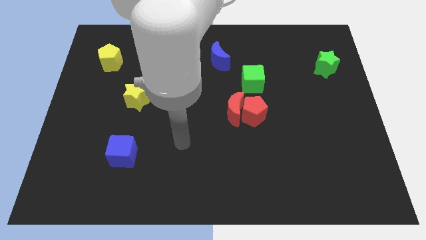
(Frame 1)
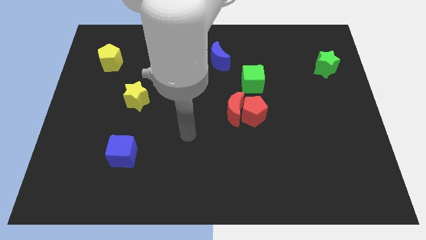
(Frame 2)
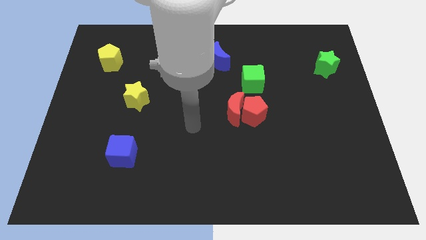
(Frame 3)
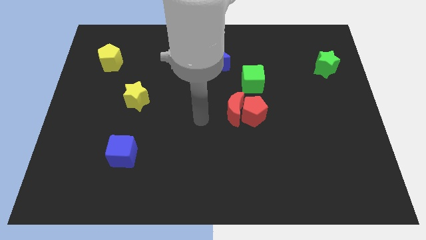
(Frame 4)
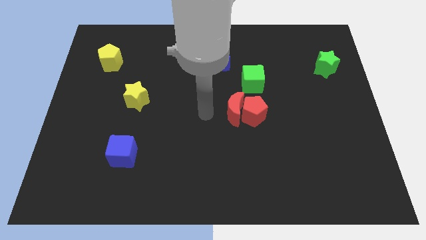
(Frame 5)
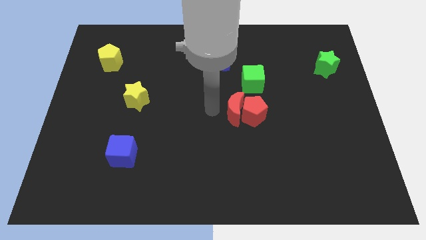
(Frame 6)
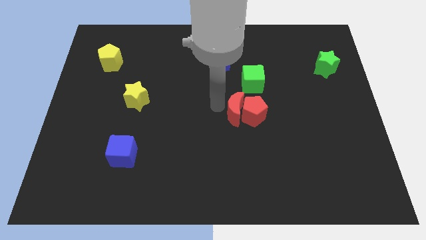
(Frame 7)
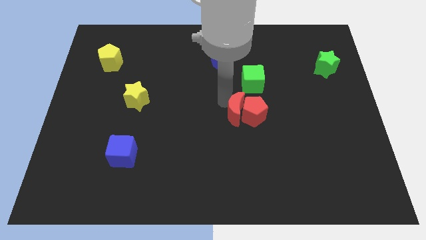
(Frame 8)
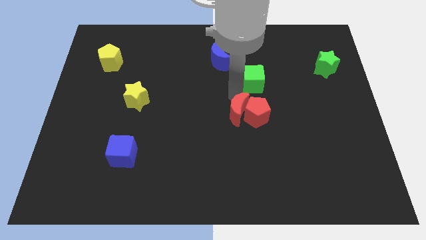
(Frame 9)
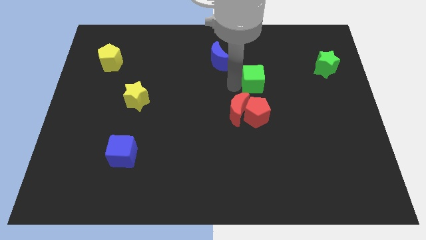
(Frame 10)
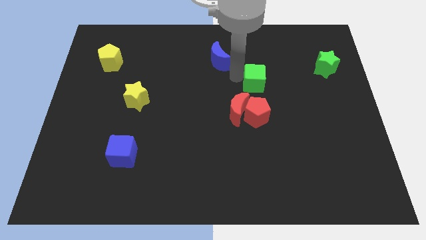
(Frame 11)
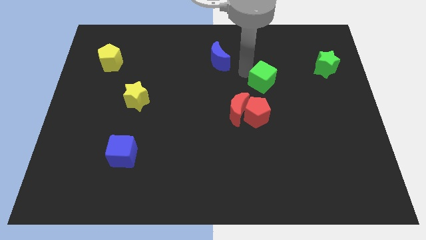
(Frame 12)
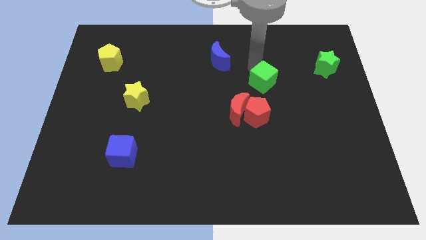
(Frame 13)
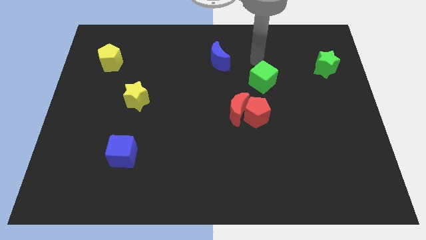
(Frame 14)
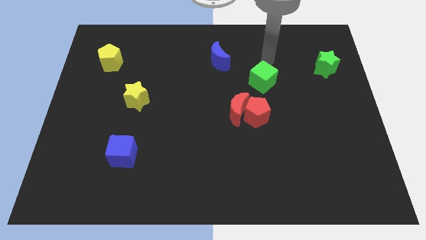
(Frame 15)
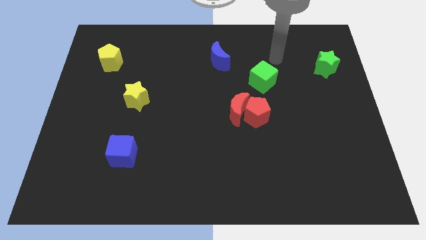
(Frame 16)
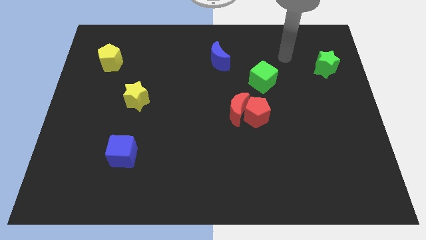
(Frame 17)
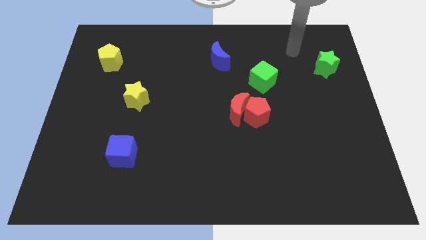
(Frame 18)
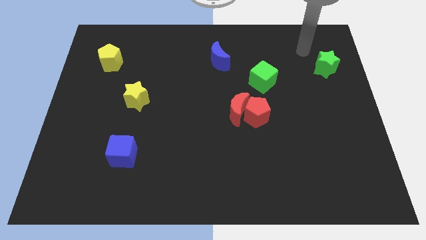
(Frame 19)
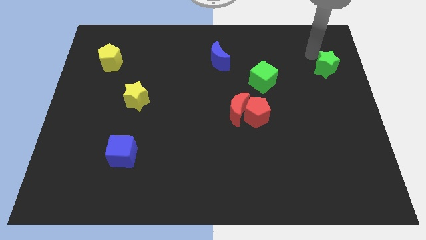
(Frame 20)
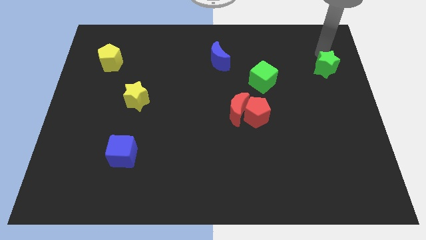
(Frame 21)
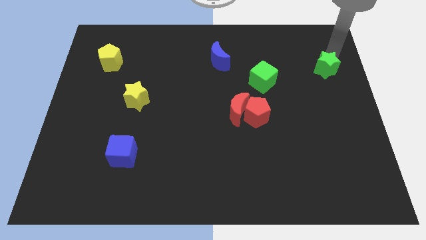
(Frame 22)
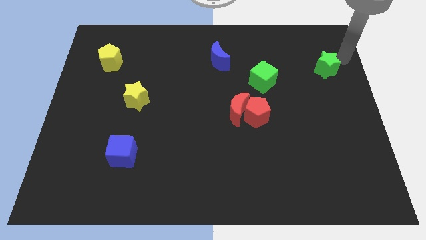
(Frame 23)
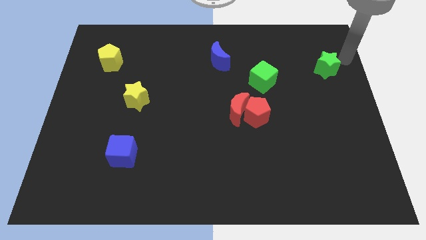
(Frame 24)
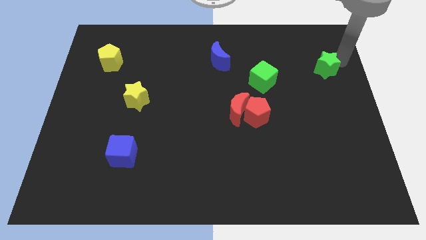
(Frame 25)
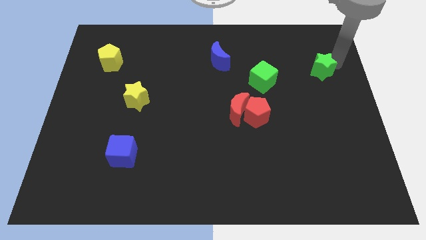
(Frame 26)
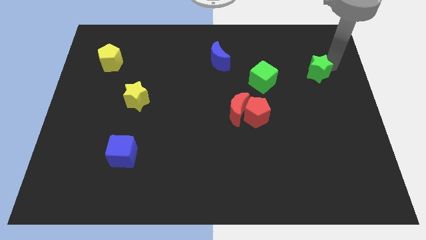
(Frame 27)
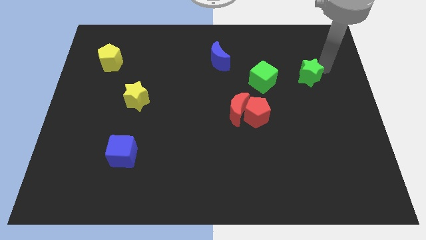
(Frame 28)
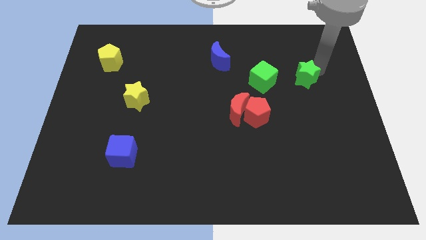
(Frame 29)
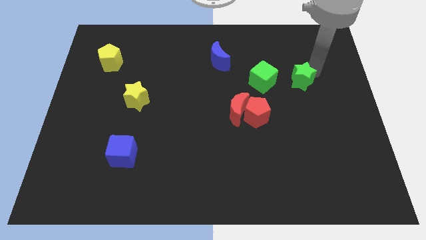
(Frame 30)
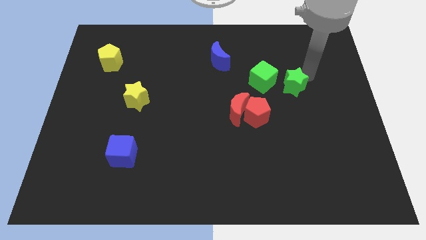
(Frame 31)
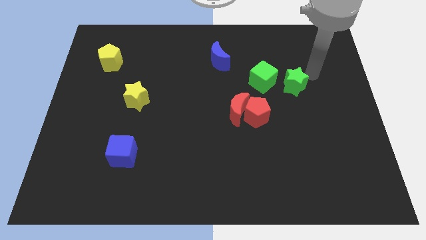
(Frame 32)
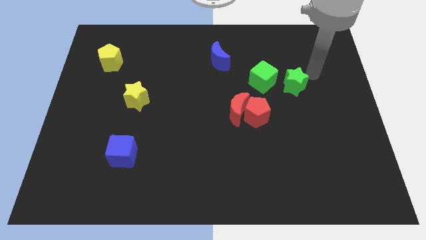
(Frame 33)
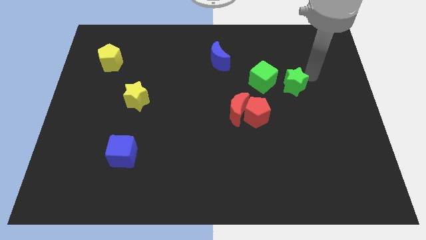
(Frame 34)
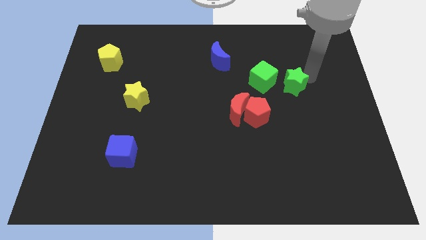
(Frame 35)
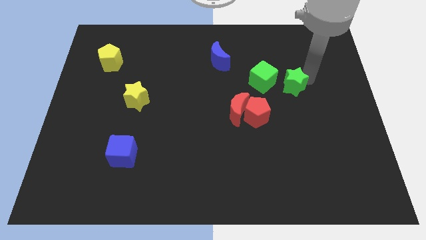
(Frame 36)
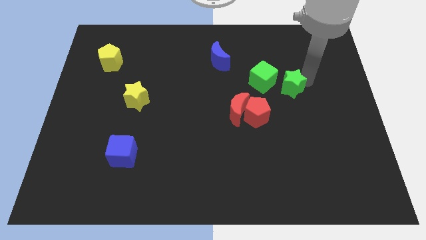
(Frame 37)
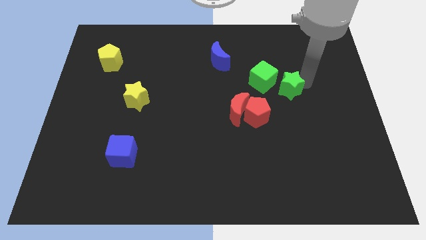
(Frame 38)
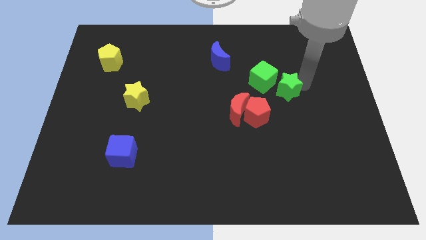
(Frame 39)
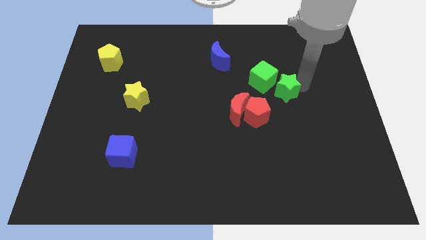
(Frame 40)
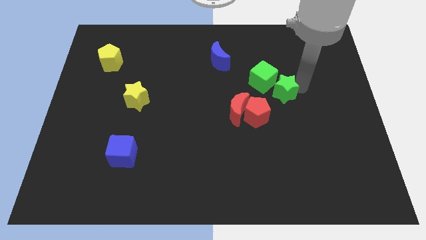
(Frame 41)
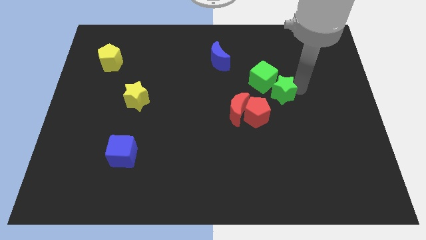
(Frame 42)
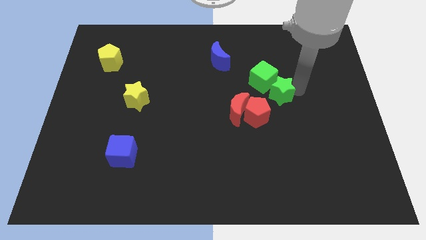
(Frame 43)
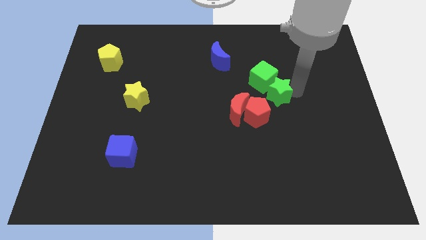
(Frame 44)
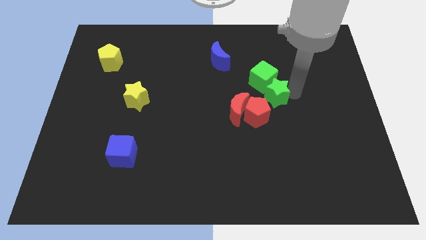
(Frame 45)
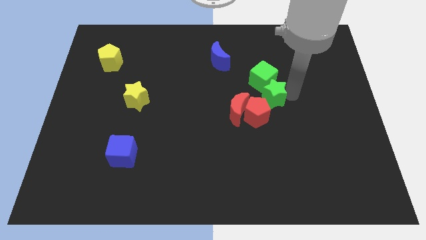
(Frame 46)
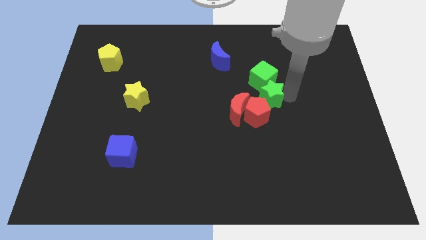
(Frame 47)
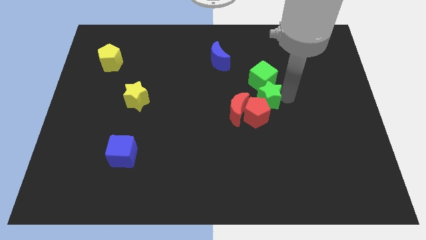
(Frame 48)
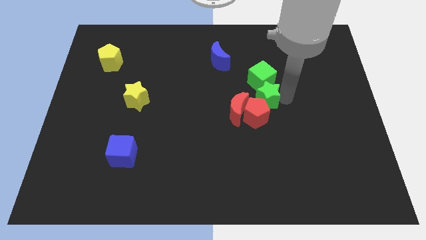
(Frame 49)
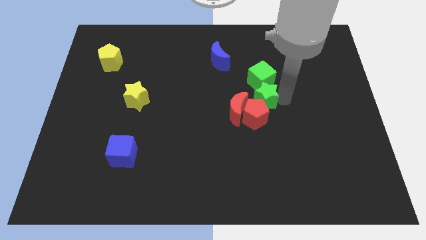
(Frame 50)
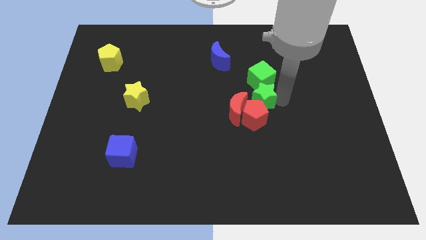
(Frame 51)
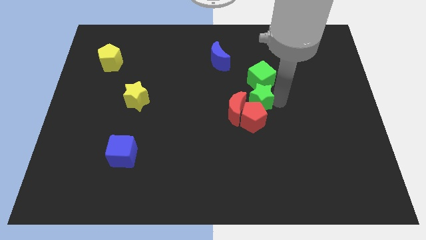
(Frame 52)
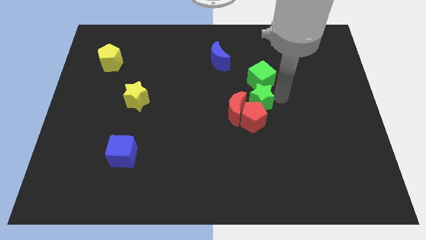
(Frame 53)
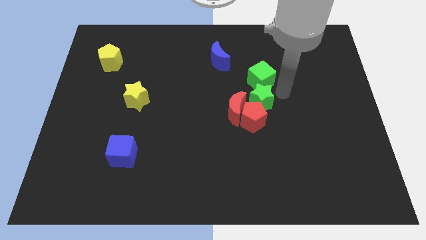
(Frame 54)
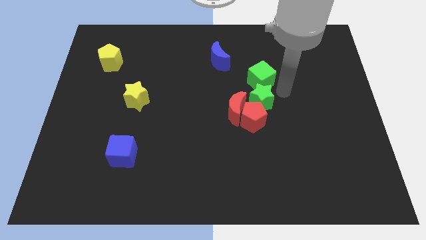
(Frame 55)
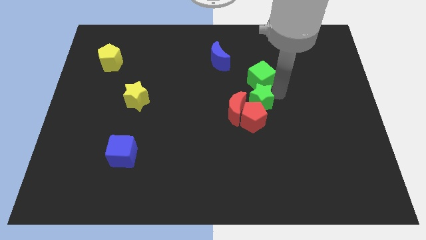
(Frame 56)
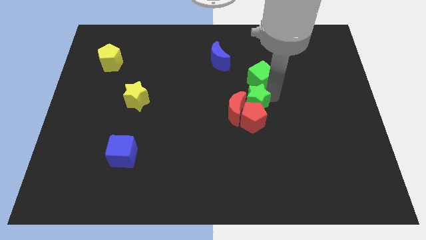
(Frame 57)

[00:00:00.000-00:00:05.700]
push the green star to the red moon
